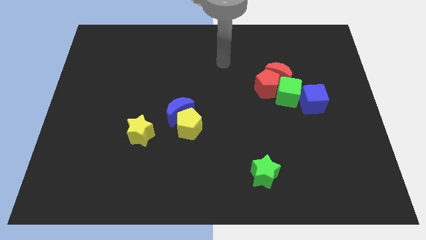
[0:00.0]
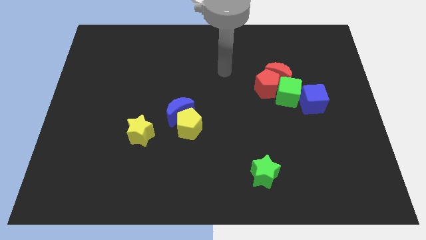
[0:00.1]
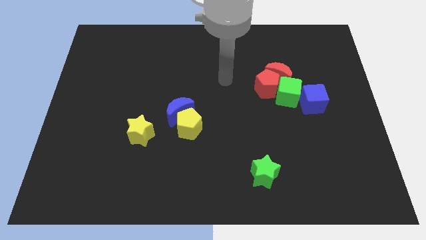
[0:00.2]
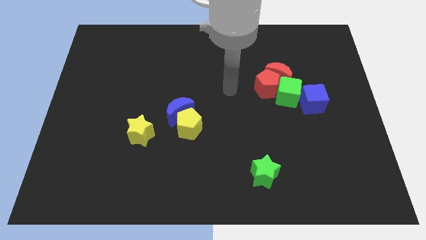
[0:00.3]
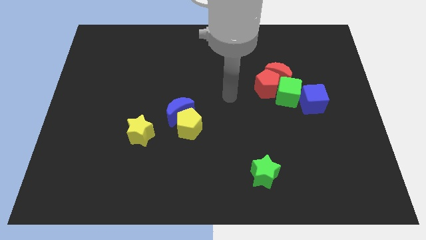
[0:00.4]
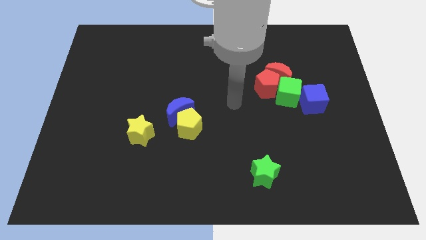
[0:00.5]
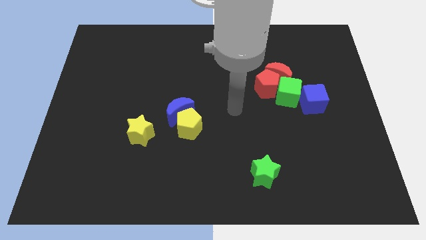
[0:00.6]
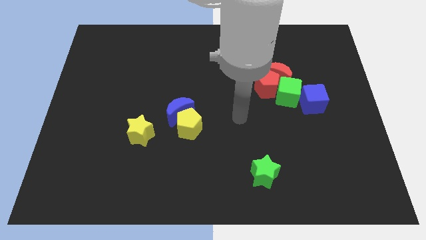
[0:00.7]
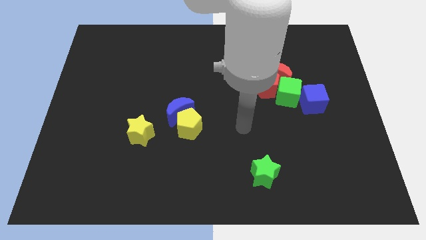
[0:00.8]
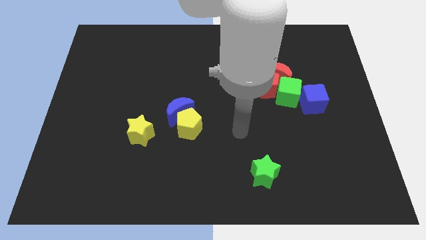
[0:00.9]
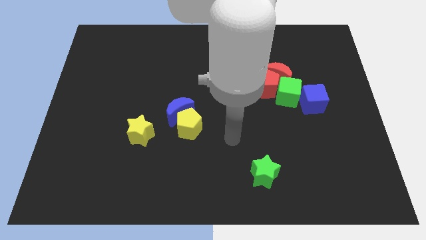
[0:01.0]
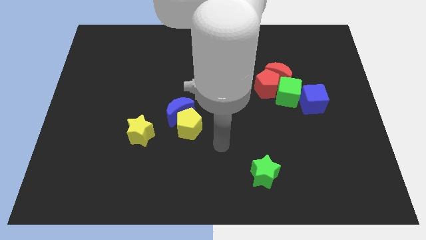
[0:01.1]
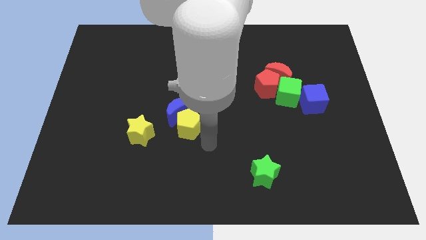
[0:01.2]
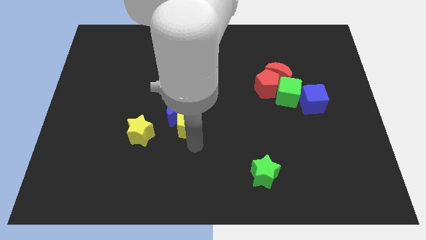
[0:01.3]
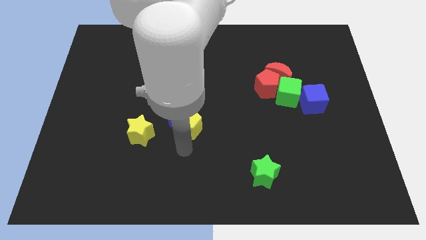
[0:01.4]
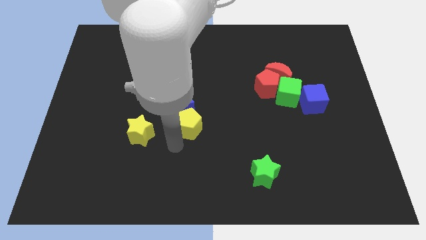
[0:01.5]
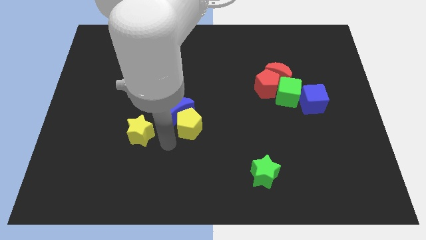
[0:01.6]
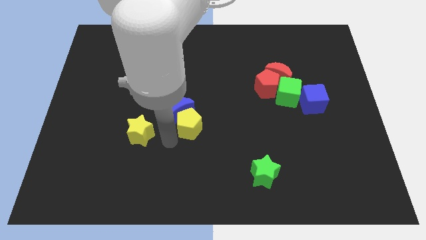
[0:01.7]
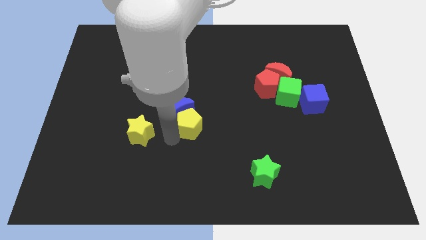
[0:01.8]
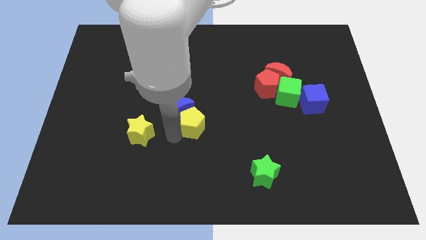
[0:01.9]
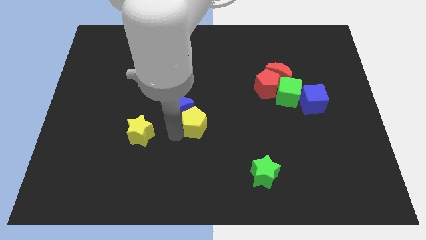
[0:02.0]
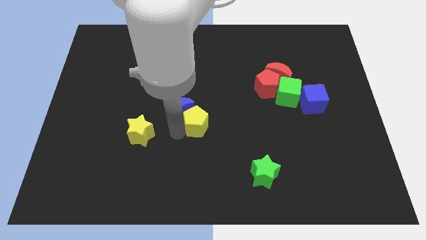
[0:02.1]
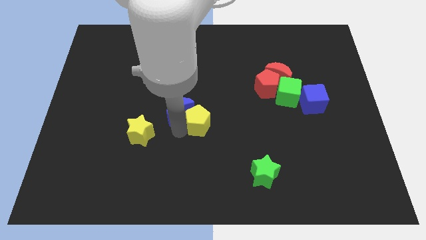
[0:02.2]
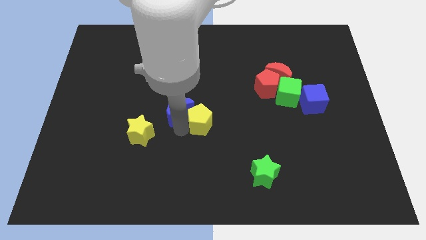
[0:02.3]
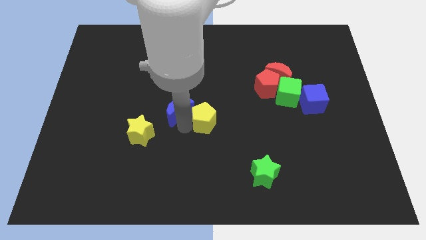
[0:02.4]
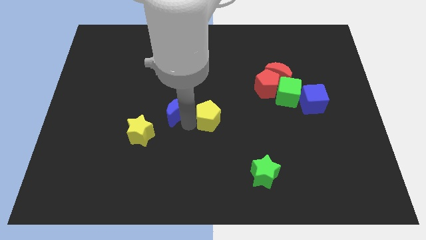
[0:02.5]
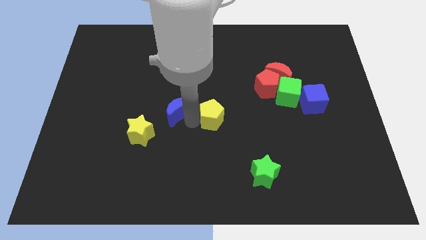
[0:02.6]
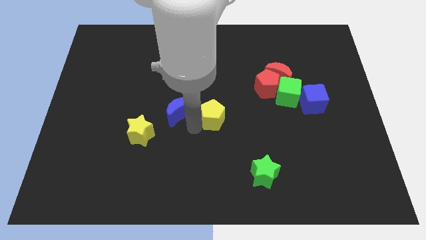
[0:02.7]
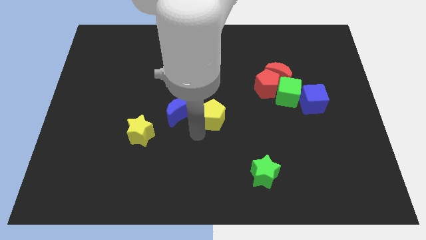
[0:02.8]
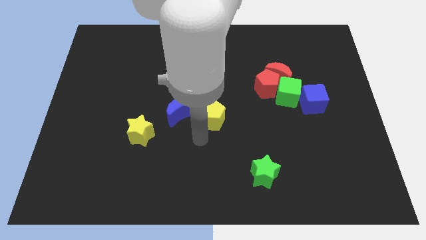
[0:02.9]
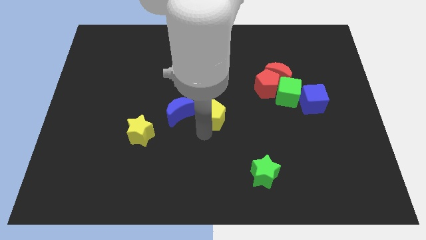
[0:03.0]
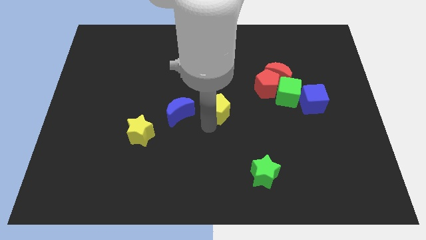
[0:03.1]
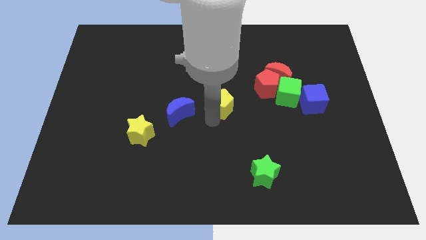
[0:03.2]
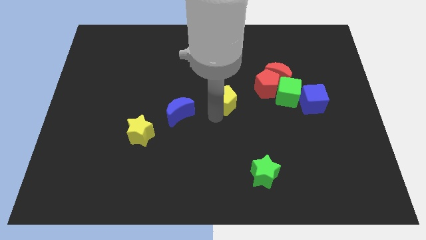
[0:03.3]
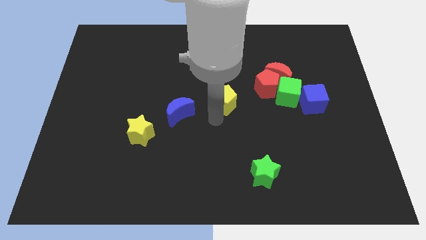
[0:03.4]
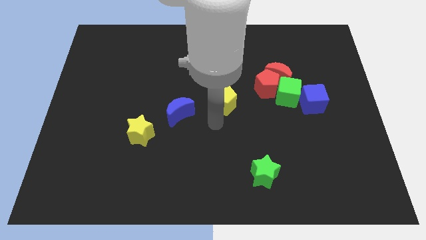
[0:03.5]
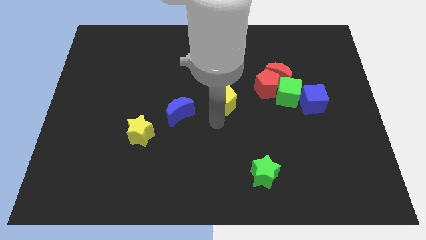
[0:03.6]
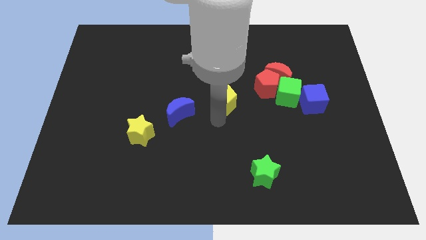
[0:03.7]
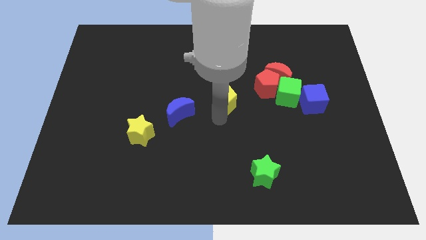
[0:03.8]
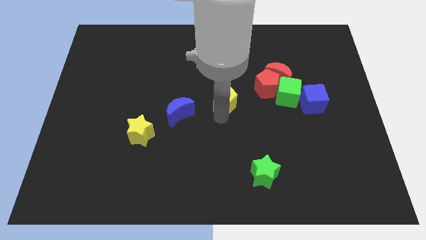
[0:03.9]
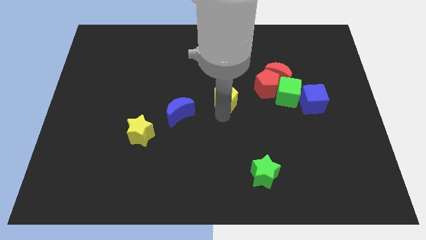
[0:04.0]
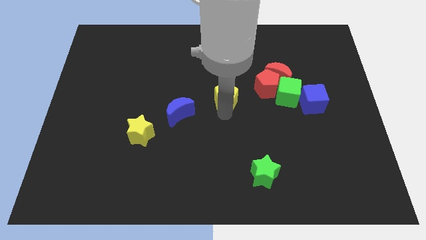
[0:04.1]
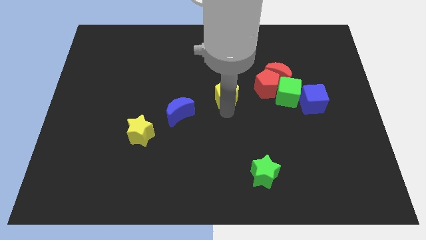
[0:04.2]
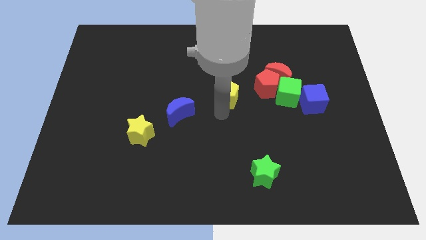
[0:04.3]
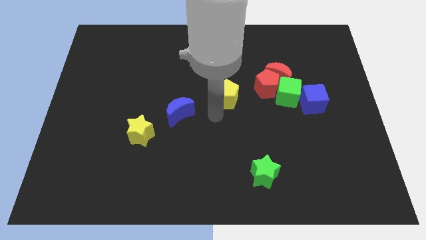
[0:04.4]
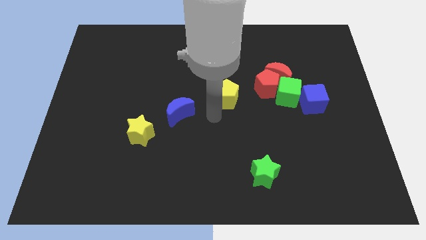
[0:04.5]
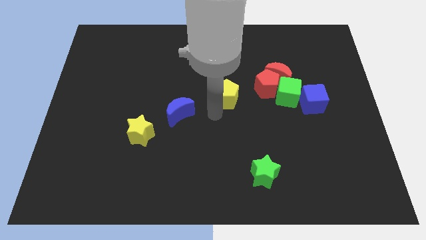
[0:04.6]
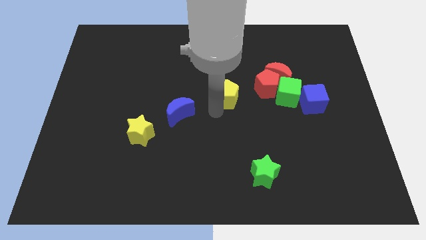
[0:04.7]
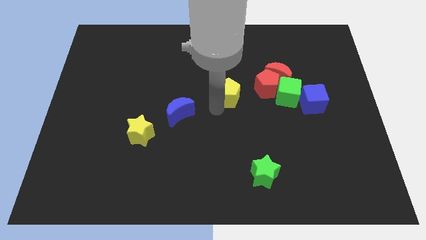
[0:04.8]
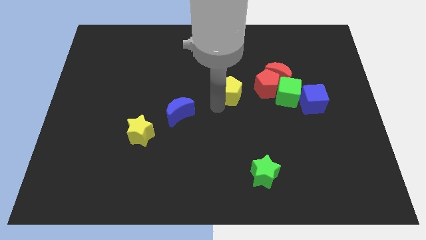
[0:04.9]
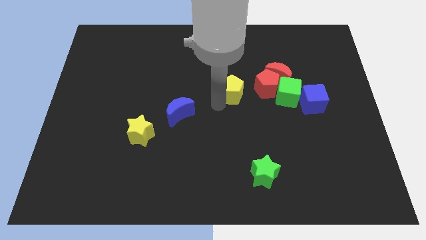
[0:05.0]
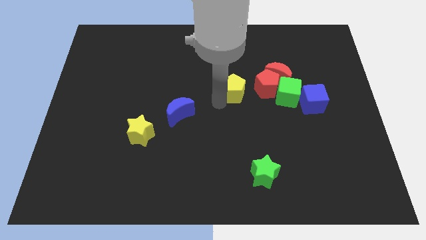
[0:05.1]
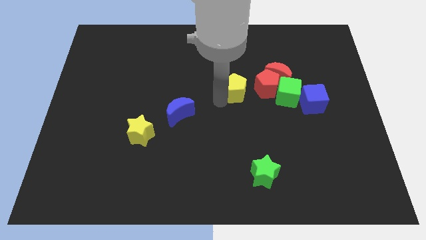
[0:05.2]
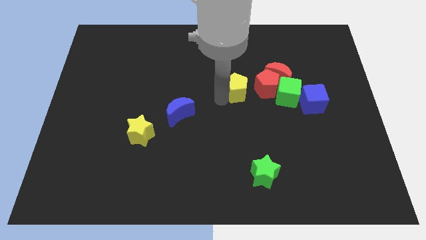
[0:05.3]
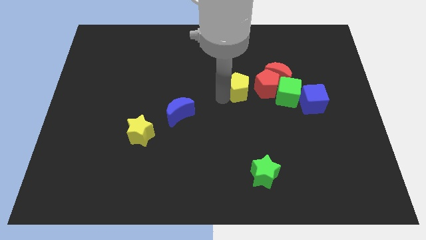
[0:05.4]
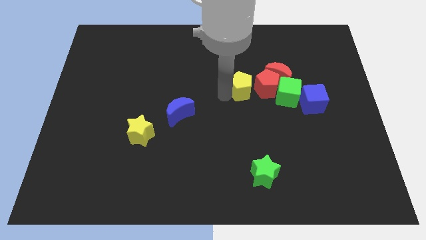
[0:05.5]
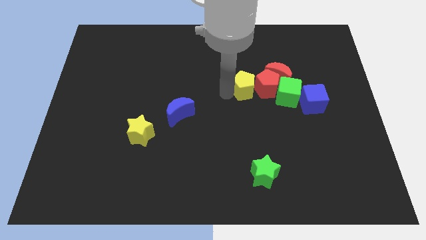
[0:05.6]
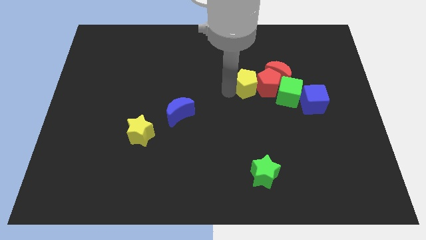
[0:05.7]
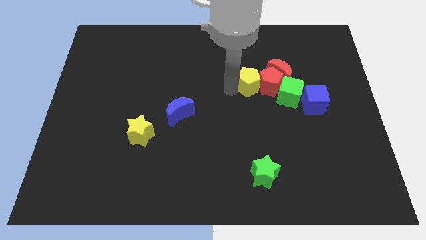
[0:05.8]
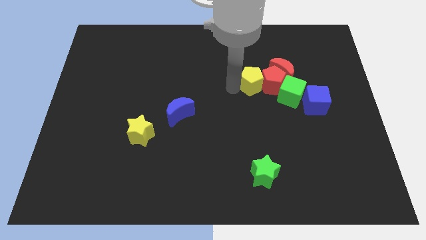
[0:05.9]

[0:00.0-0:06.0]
push the yellow pentagon up and then to the right

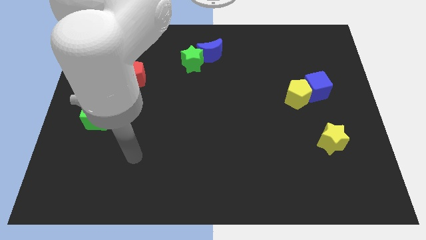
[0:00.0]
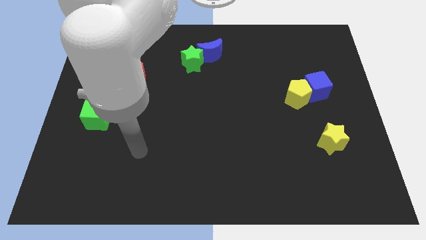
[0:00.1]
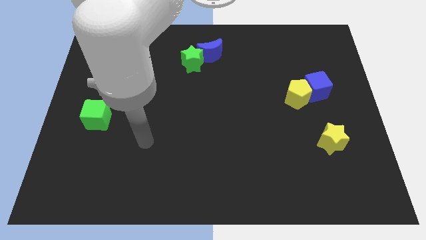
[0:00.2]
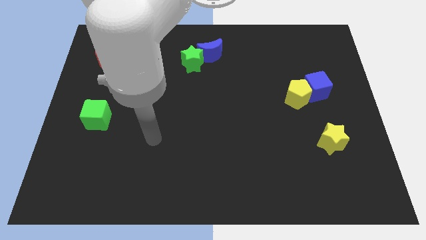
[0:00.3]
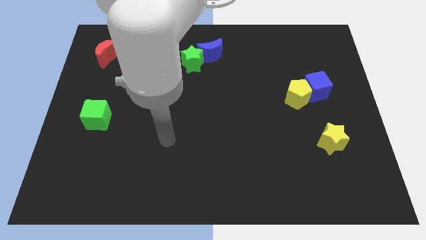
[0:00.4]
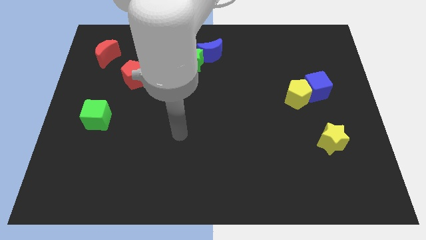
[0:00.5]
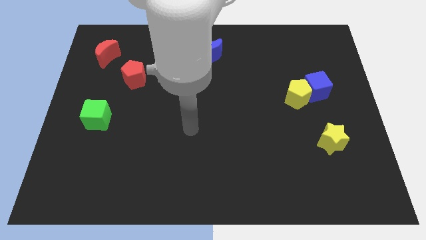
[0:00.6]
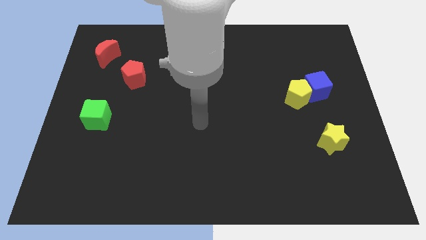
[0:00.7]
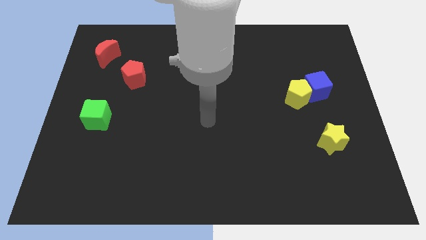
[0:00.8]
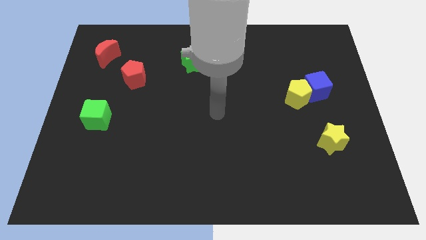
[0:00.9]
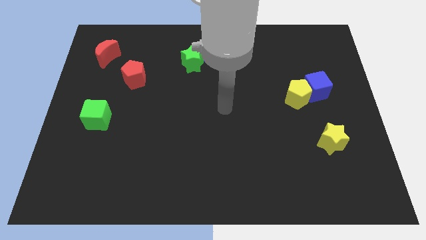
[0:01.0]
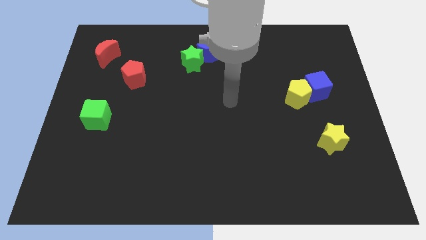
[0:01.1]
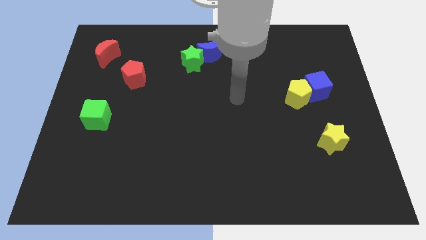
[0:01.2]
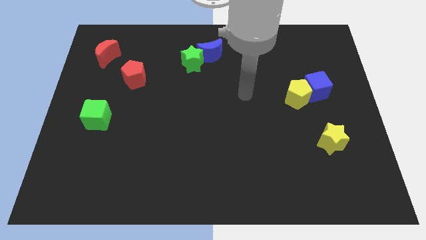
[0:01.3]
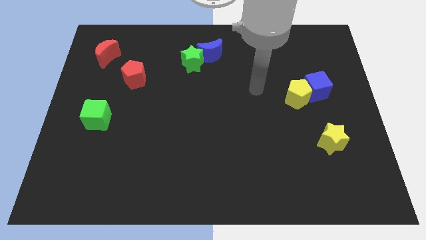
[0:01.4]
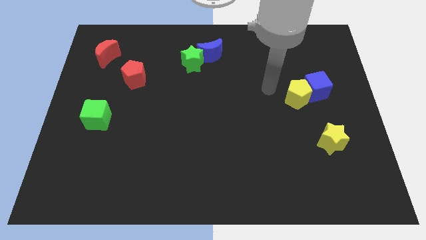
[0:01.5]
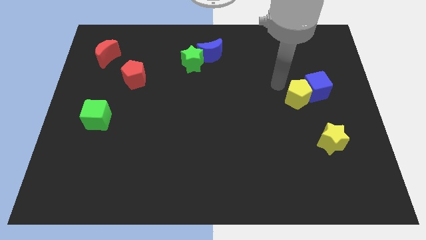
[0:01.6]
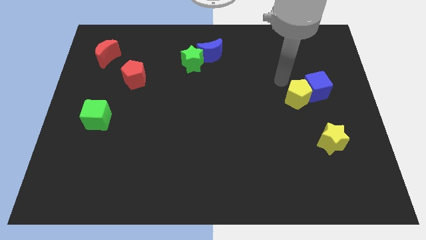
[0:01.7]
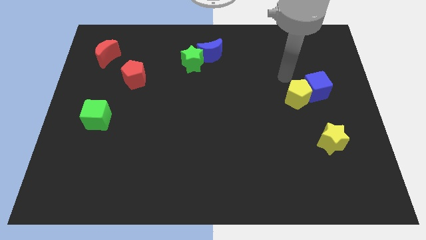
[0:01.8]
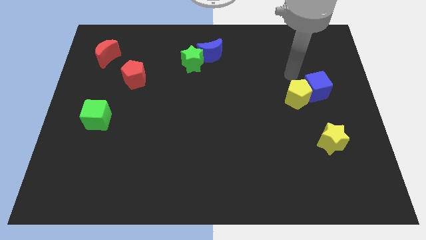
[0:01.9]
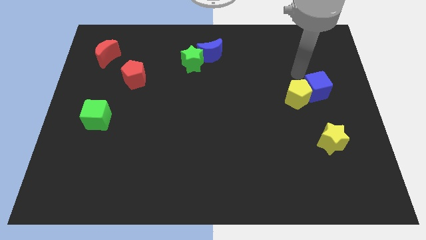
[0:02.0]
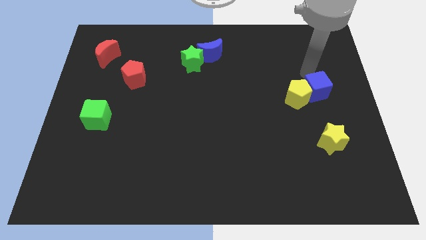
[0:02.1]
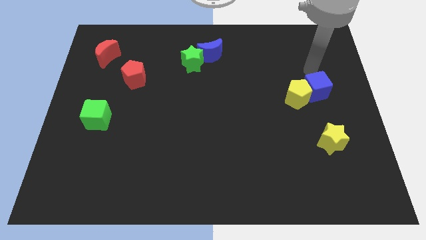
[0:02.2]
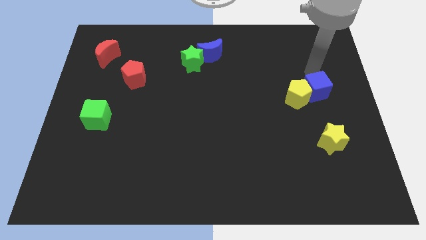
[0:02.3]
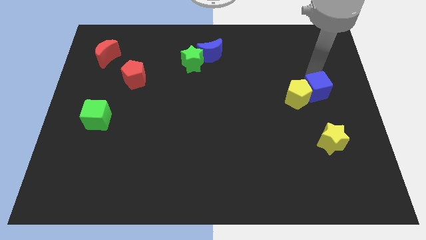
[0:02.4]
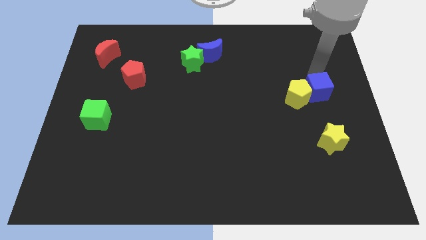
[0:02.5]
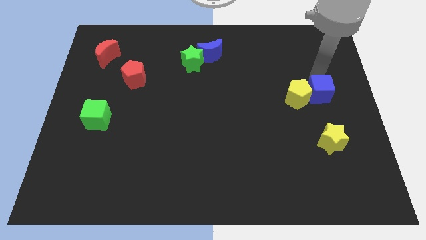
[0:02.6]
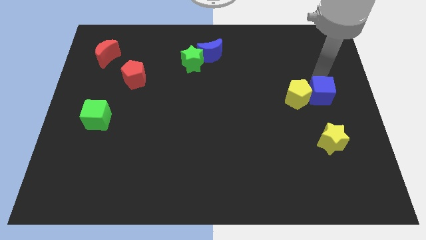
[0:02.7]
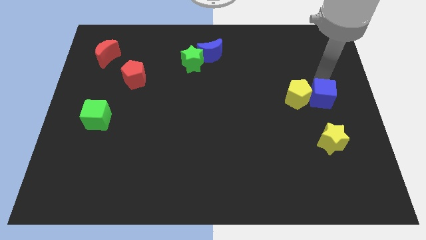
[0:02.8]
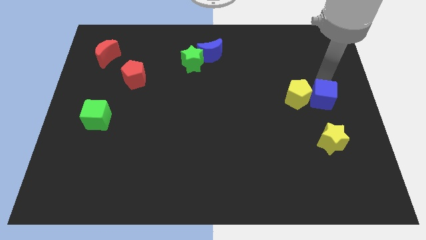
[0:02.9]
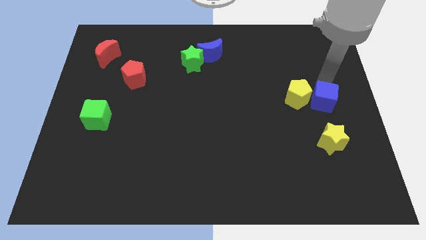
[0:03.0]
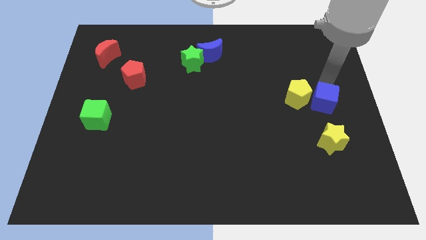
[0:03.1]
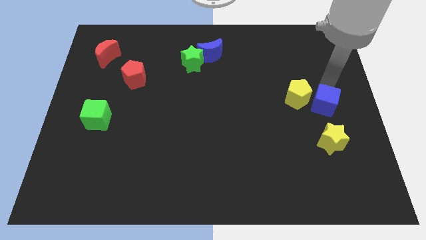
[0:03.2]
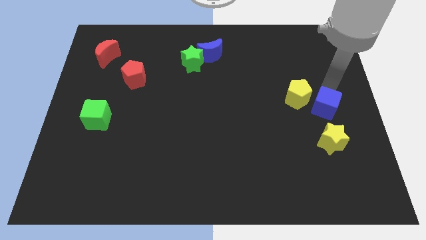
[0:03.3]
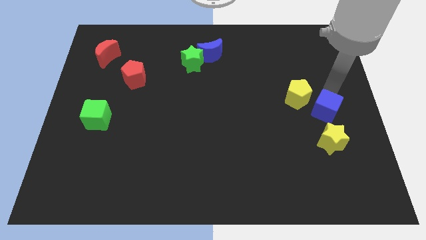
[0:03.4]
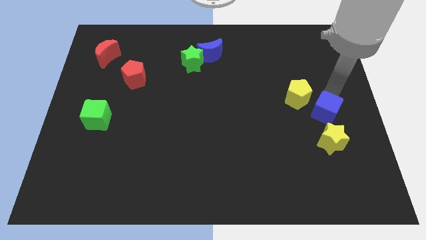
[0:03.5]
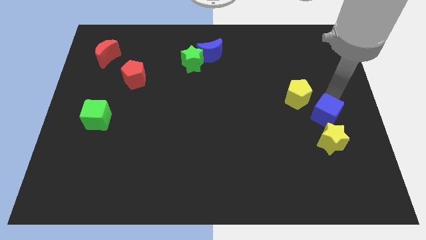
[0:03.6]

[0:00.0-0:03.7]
slightly push the blue cube downwards
